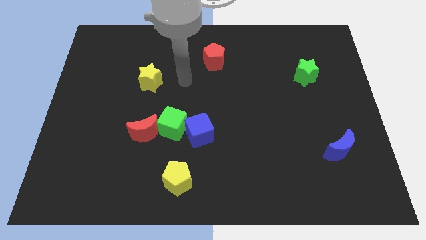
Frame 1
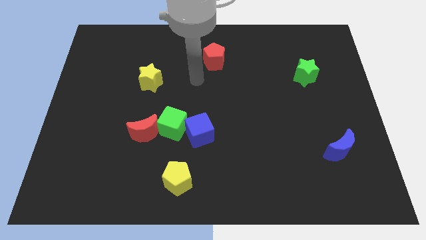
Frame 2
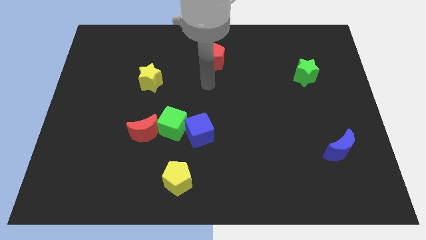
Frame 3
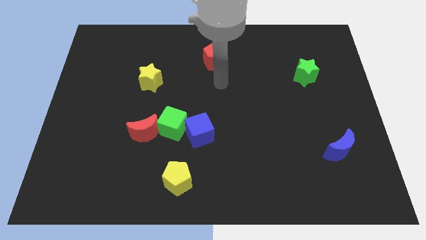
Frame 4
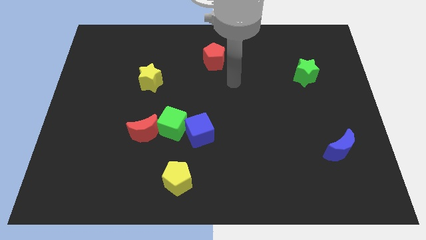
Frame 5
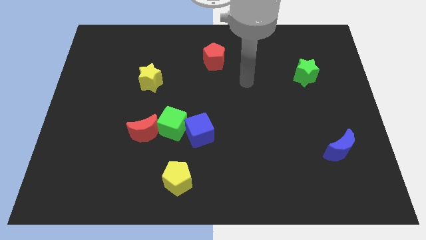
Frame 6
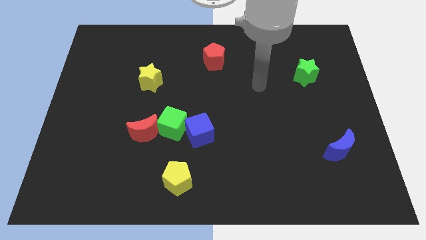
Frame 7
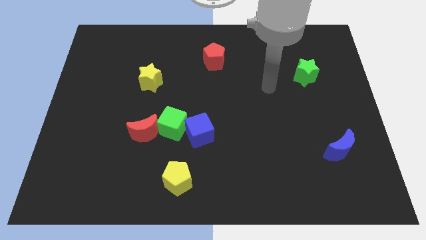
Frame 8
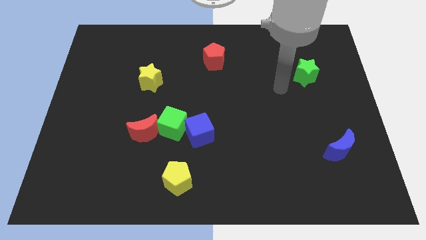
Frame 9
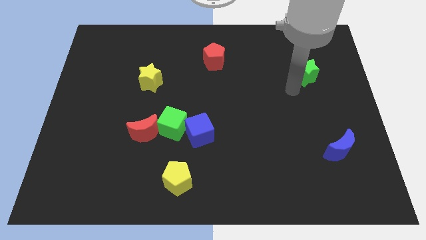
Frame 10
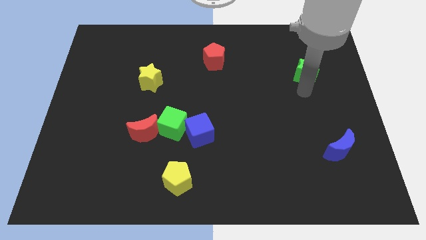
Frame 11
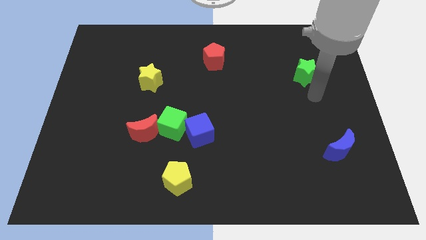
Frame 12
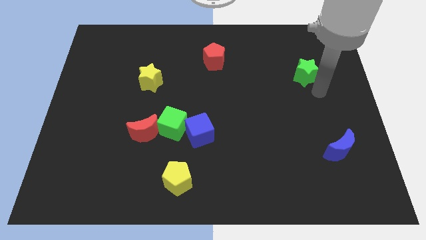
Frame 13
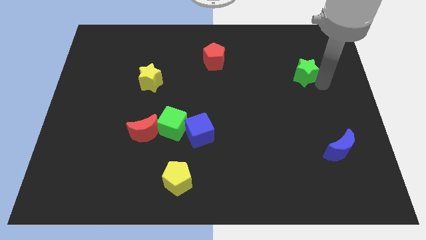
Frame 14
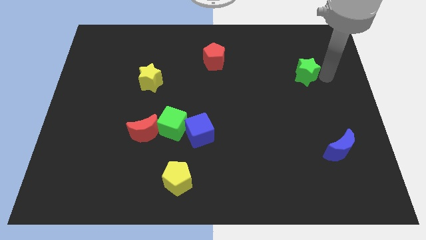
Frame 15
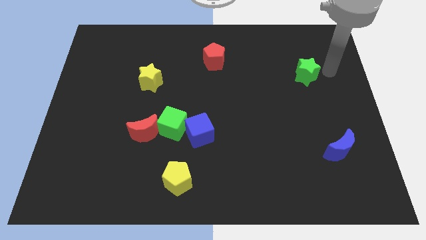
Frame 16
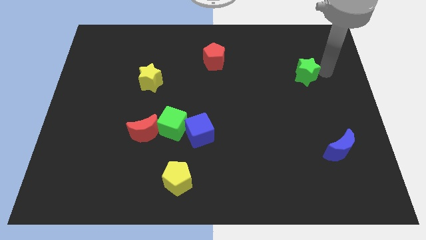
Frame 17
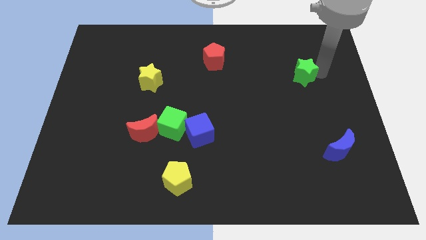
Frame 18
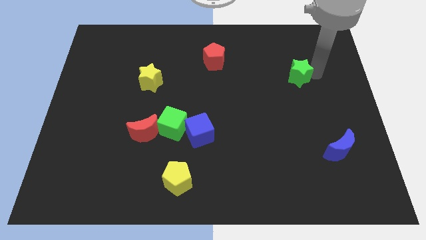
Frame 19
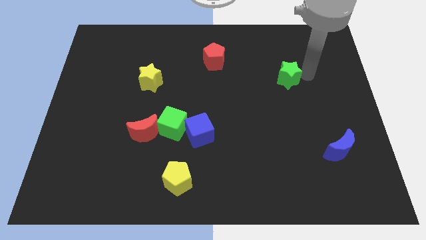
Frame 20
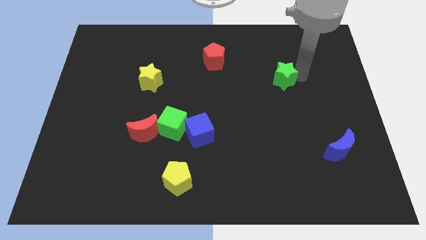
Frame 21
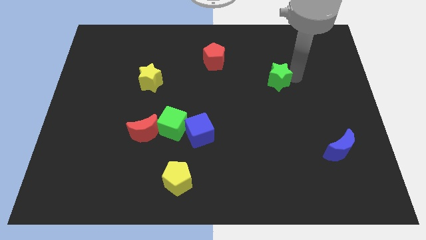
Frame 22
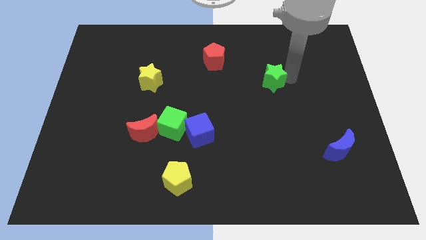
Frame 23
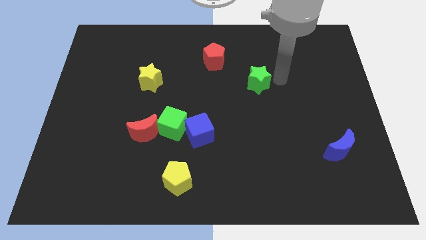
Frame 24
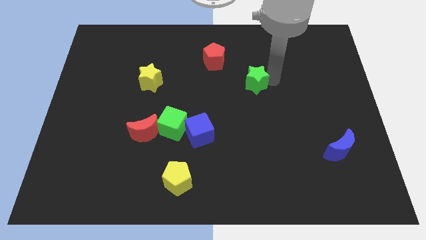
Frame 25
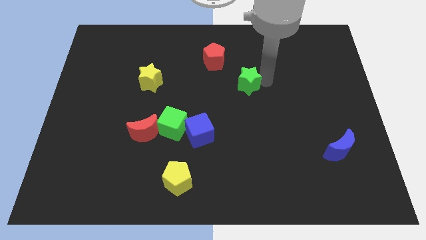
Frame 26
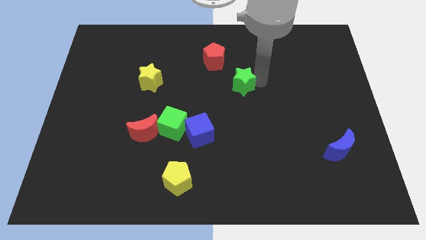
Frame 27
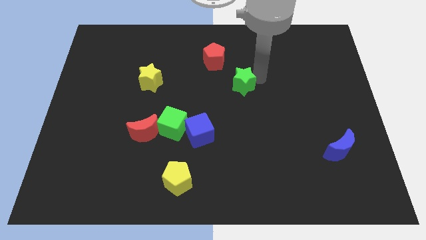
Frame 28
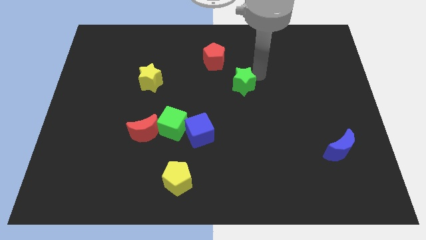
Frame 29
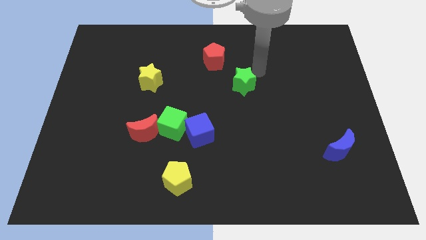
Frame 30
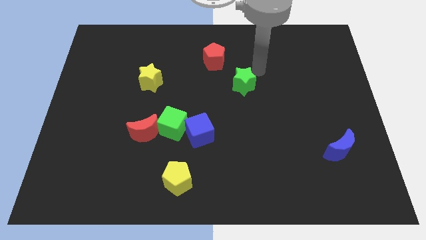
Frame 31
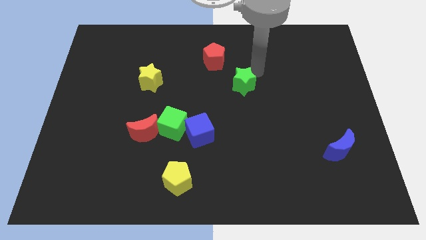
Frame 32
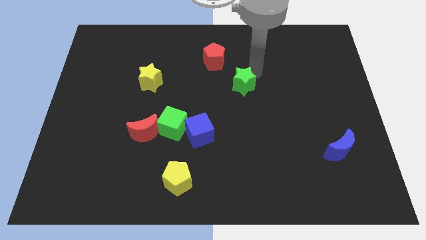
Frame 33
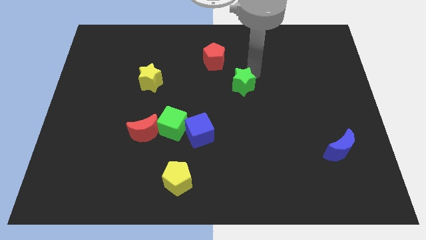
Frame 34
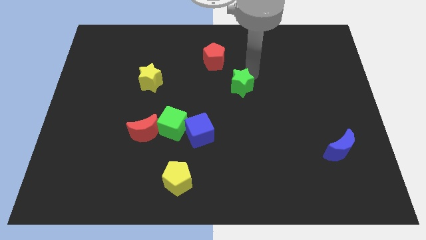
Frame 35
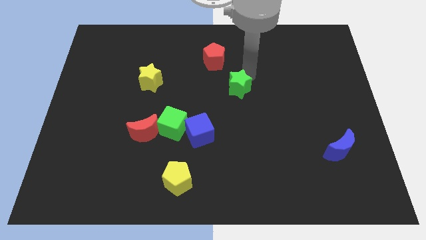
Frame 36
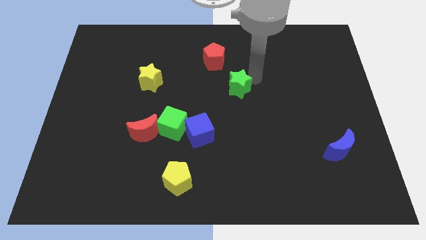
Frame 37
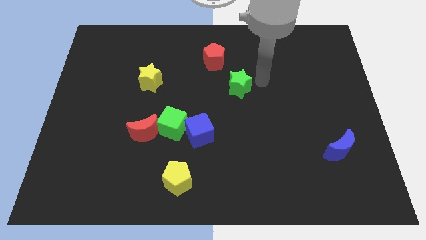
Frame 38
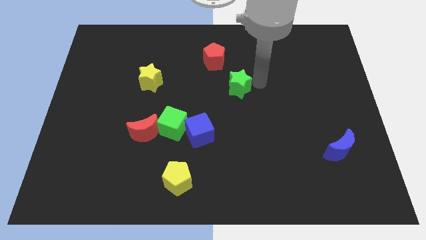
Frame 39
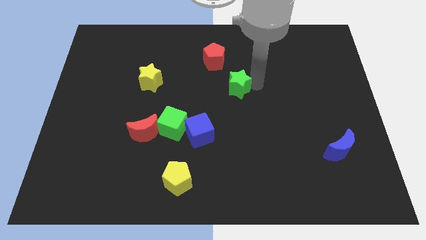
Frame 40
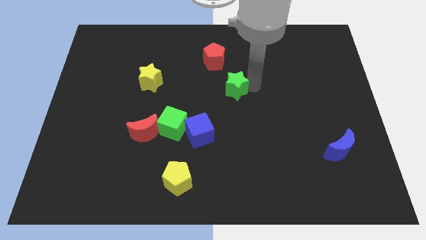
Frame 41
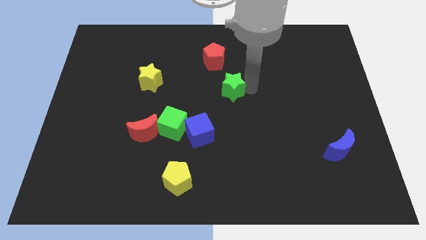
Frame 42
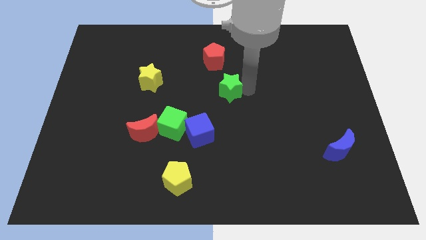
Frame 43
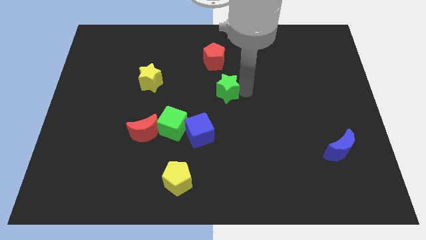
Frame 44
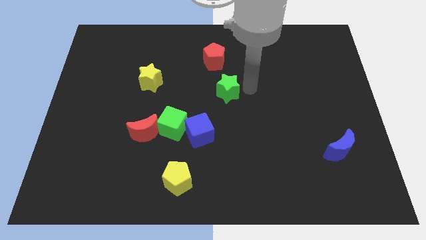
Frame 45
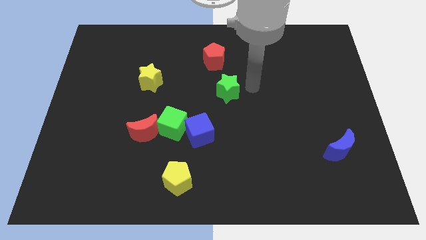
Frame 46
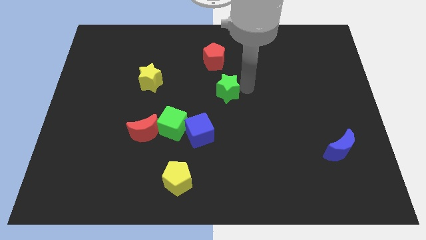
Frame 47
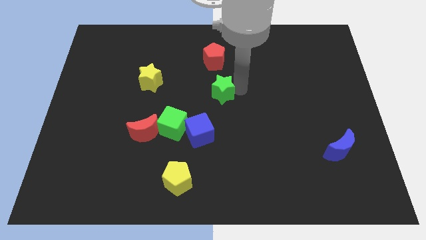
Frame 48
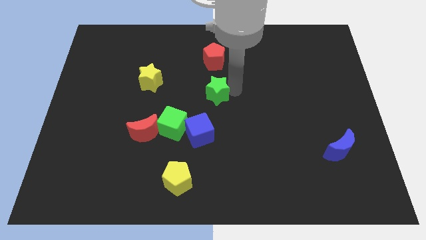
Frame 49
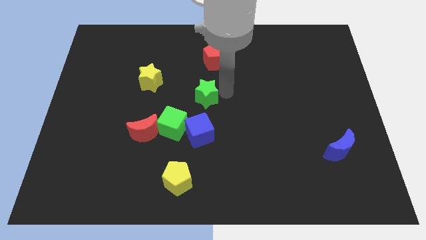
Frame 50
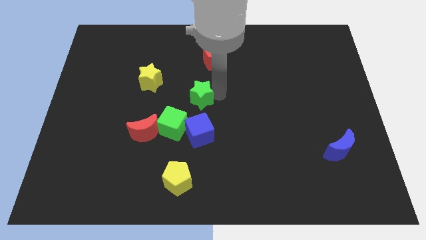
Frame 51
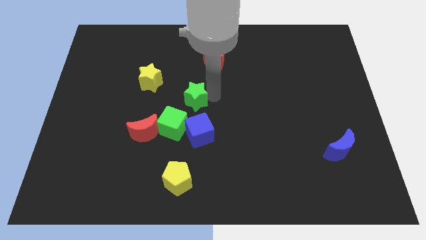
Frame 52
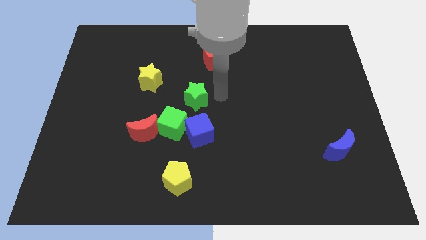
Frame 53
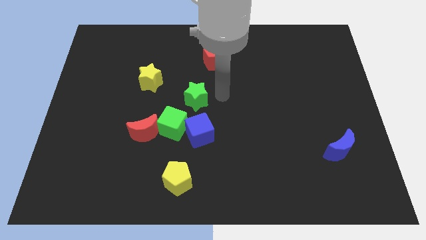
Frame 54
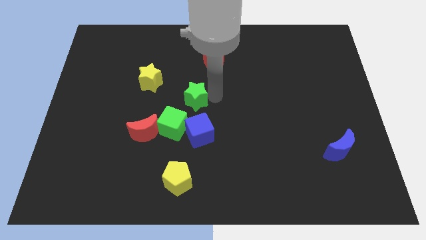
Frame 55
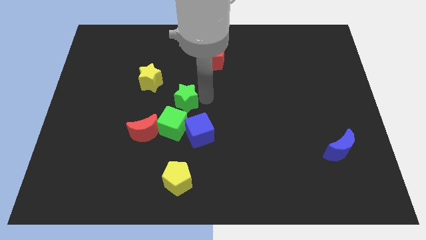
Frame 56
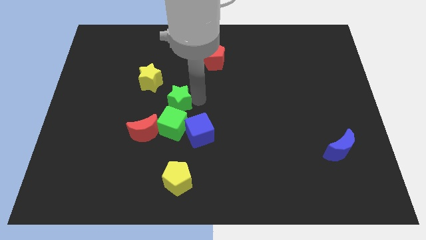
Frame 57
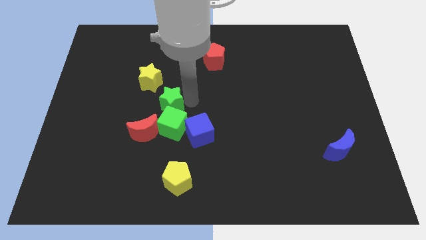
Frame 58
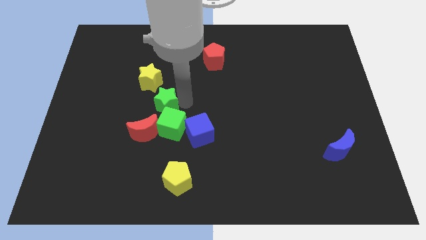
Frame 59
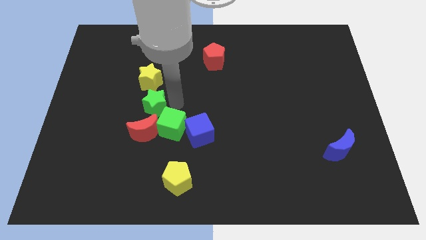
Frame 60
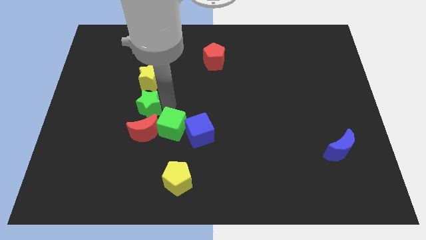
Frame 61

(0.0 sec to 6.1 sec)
put the green star diagonally up and to the left of the red moon
